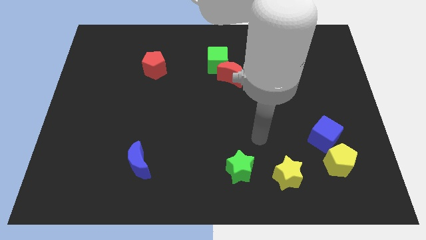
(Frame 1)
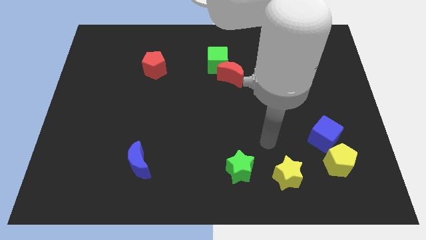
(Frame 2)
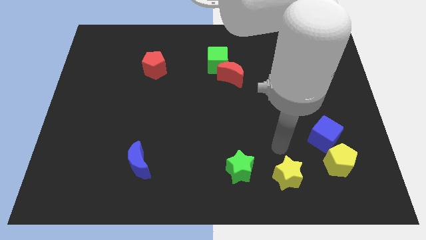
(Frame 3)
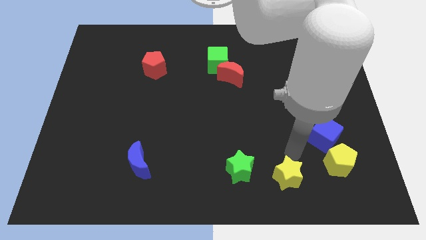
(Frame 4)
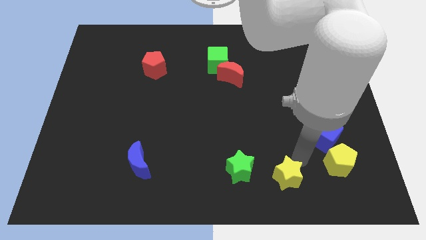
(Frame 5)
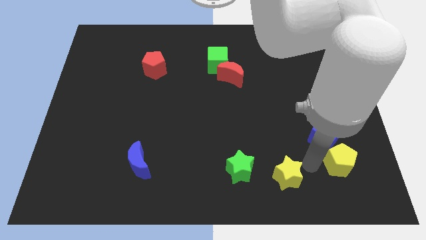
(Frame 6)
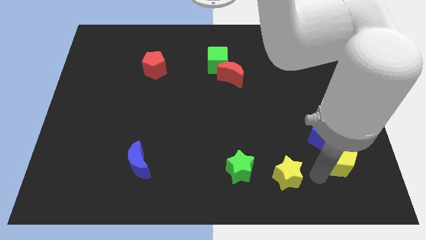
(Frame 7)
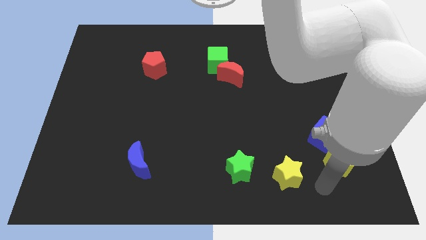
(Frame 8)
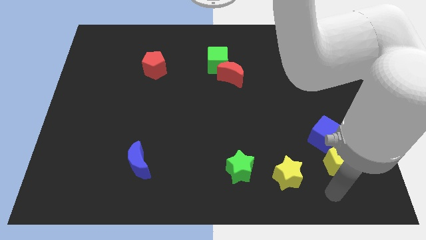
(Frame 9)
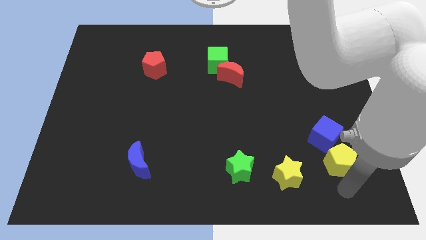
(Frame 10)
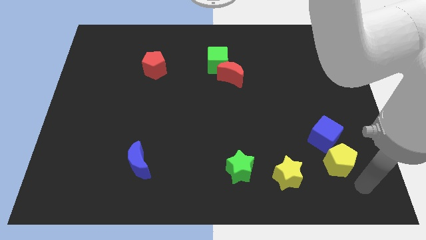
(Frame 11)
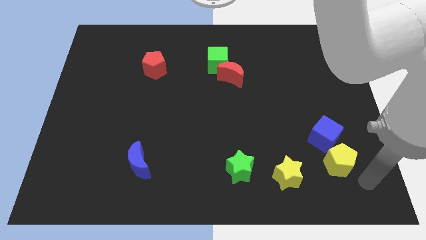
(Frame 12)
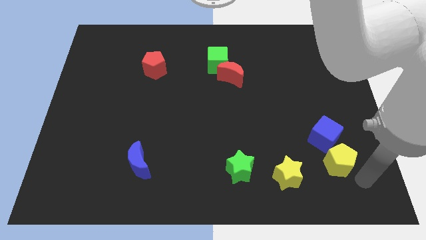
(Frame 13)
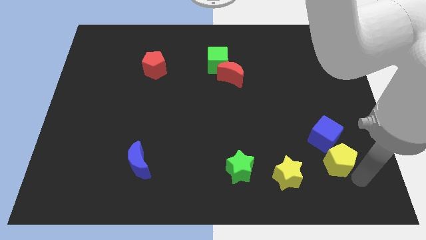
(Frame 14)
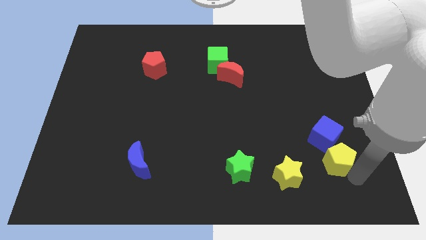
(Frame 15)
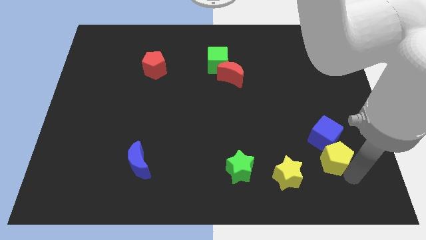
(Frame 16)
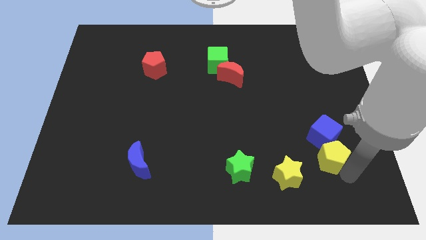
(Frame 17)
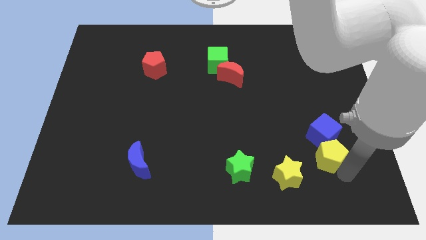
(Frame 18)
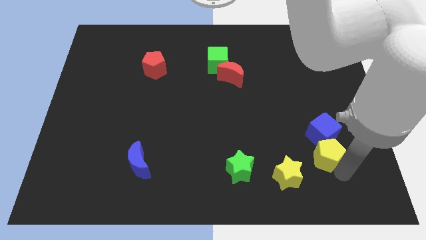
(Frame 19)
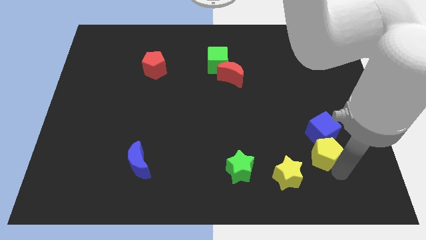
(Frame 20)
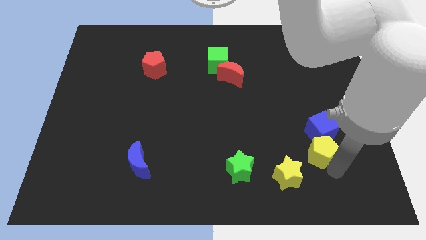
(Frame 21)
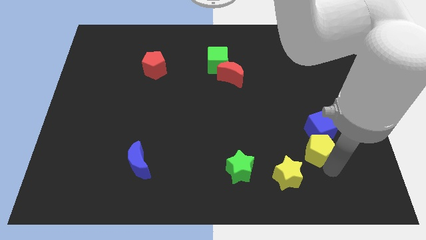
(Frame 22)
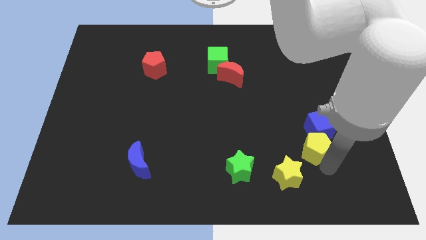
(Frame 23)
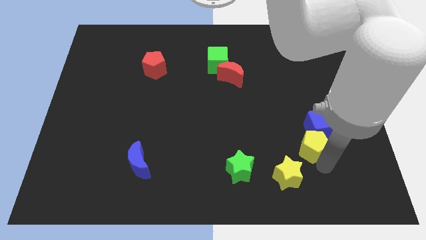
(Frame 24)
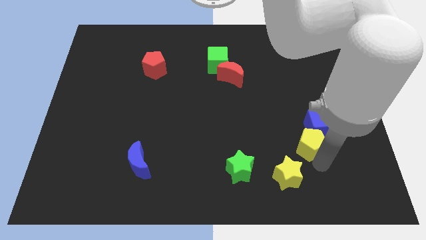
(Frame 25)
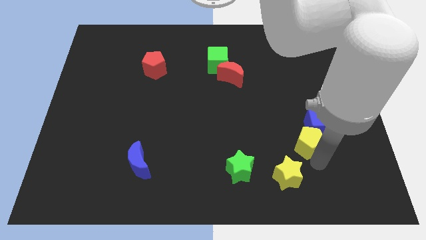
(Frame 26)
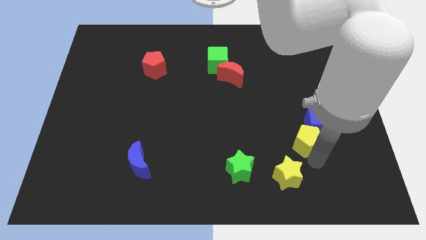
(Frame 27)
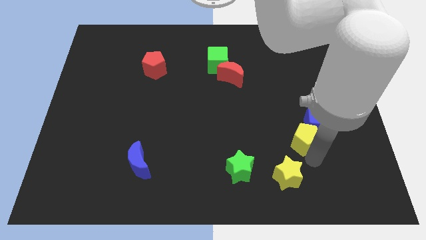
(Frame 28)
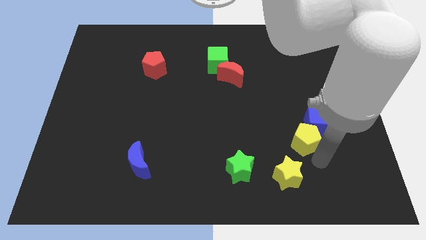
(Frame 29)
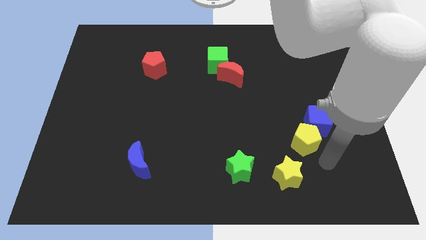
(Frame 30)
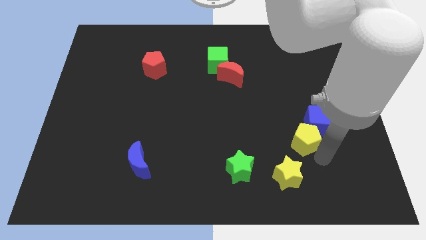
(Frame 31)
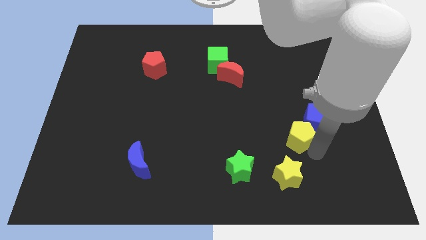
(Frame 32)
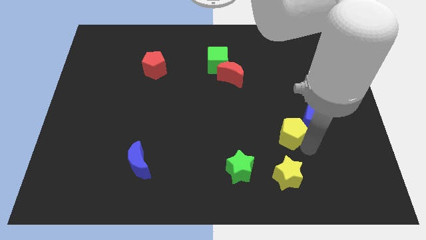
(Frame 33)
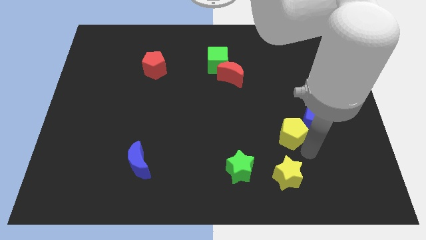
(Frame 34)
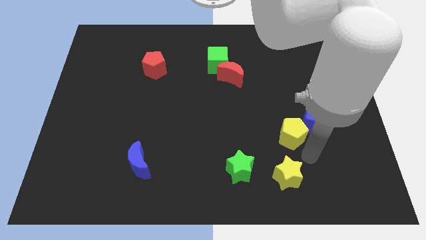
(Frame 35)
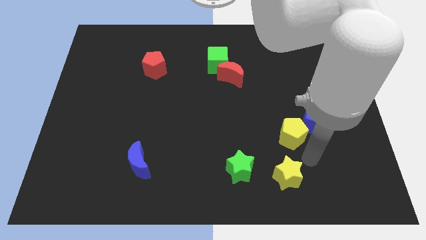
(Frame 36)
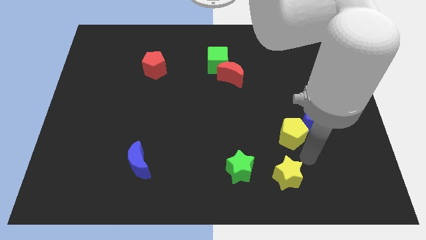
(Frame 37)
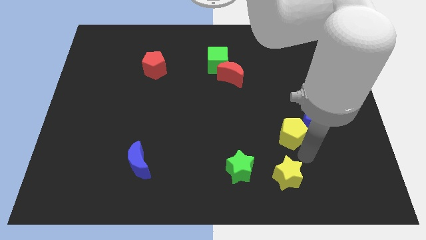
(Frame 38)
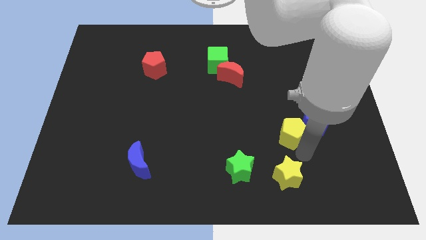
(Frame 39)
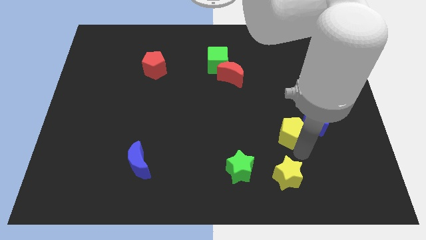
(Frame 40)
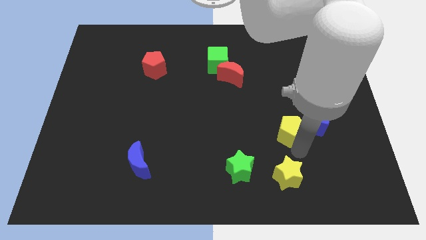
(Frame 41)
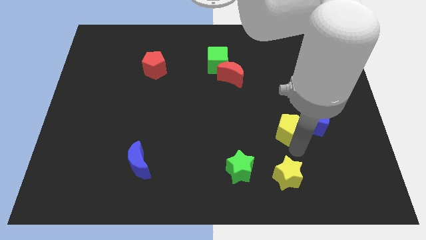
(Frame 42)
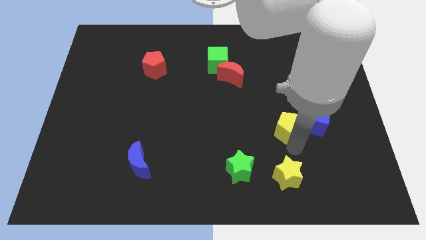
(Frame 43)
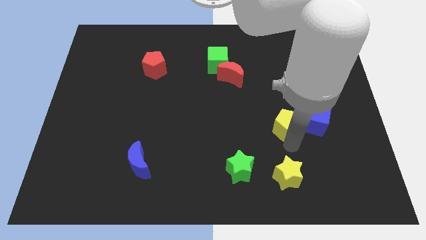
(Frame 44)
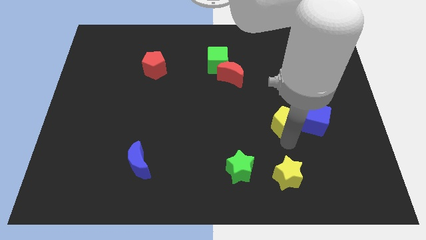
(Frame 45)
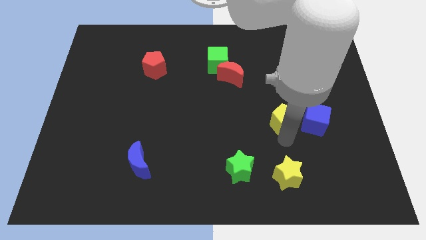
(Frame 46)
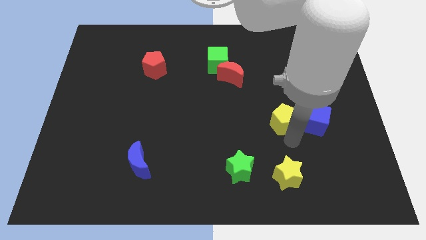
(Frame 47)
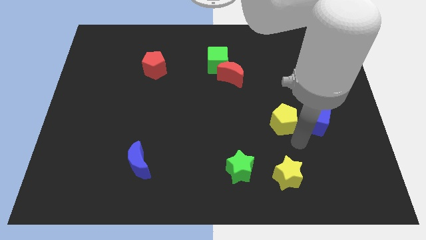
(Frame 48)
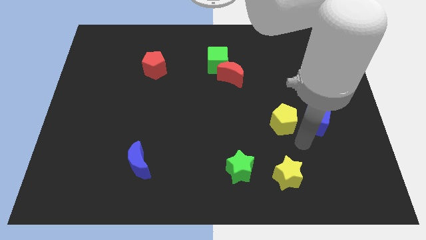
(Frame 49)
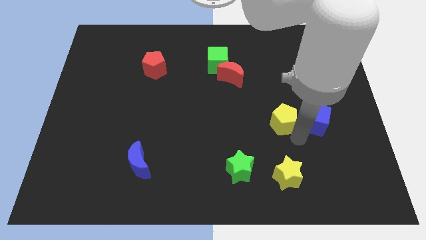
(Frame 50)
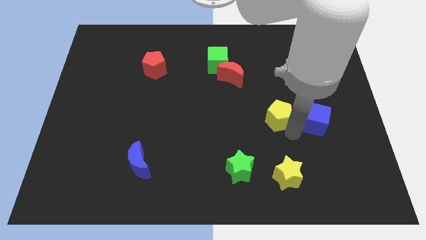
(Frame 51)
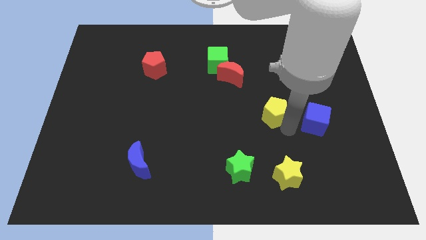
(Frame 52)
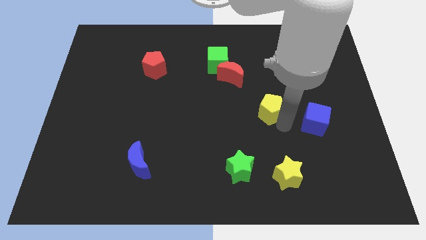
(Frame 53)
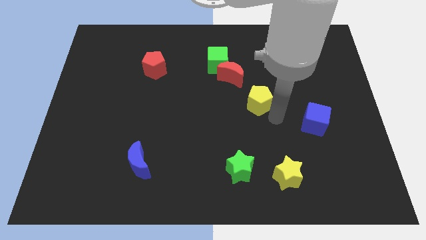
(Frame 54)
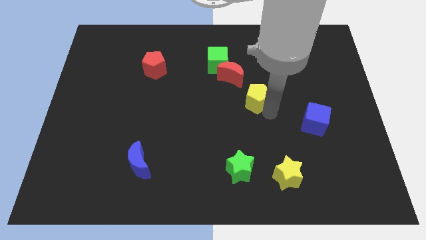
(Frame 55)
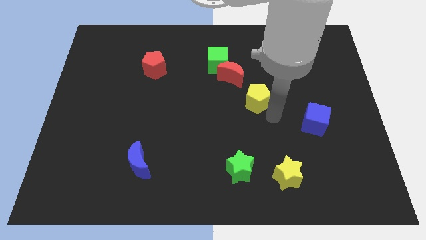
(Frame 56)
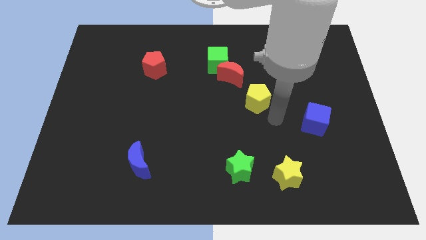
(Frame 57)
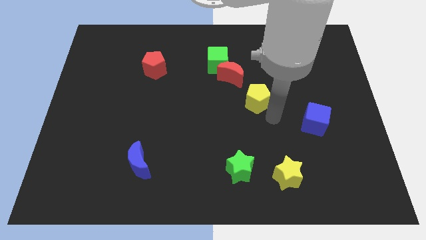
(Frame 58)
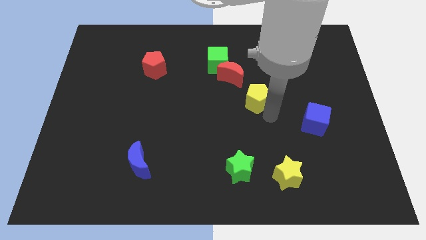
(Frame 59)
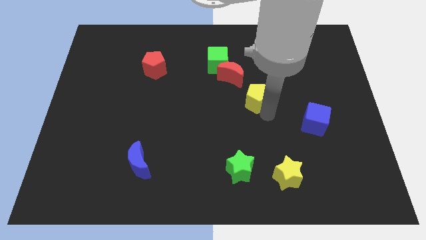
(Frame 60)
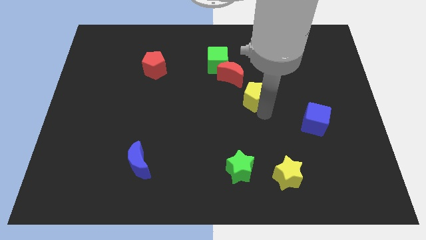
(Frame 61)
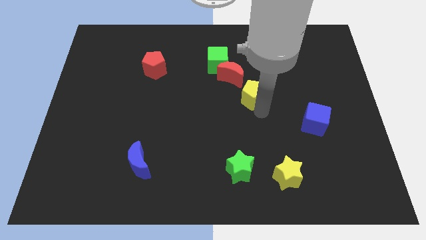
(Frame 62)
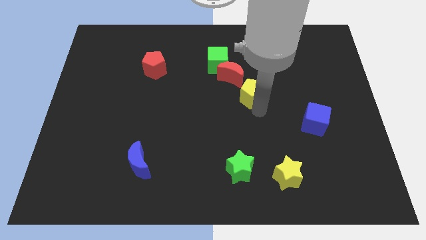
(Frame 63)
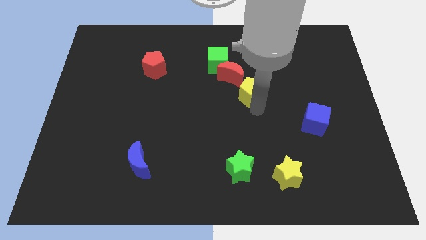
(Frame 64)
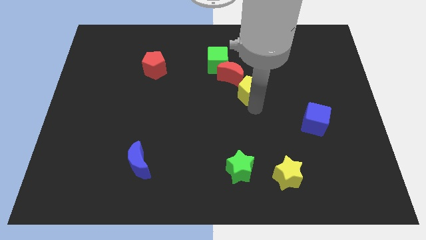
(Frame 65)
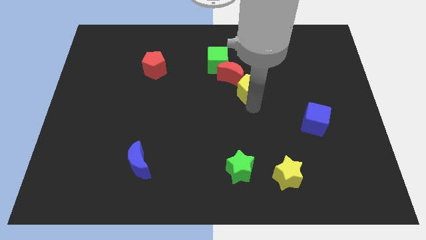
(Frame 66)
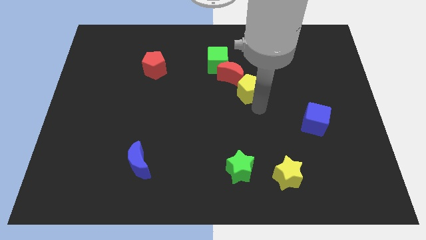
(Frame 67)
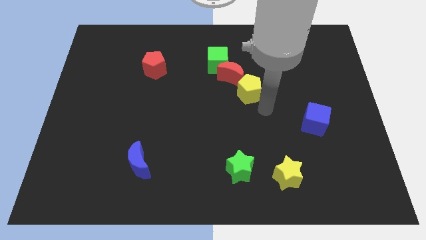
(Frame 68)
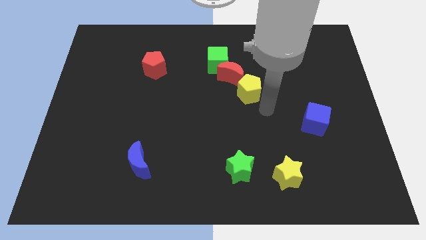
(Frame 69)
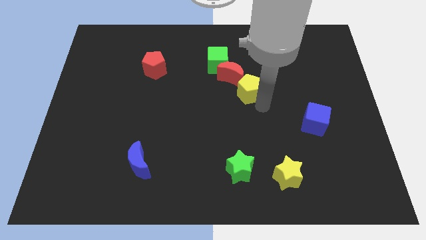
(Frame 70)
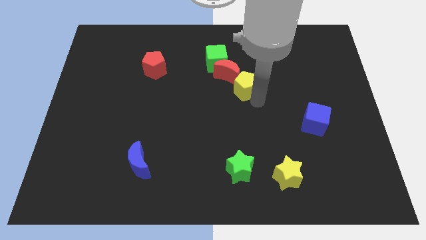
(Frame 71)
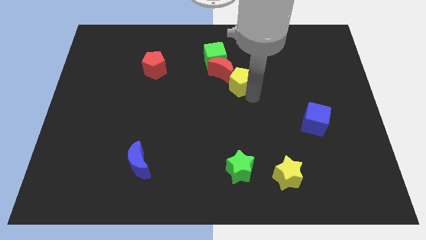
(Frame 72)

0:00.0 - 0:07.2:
push the yellow pentagon next to the red moon
